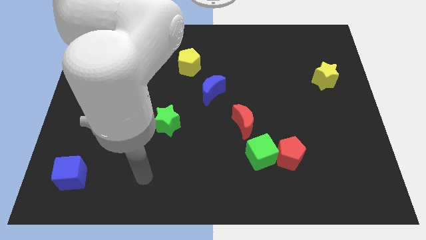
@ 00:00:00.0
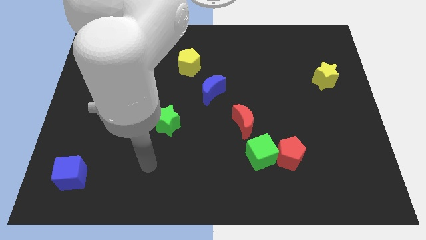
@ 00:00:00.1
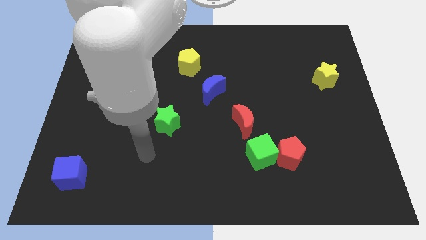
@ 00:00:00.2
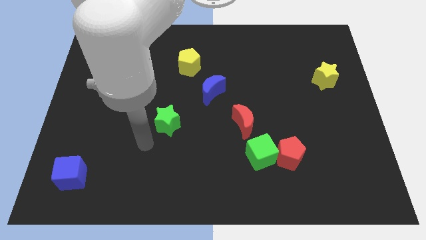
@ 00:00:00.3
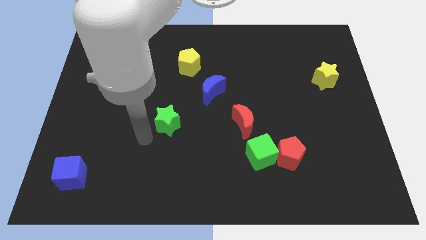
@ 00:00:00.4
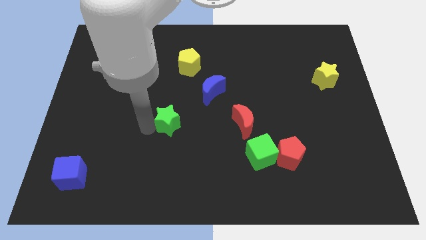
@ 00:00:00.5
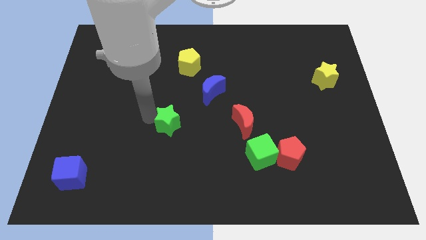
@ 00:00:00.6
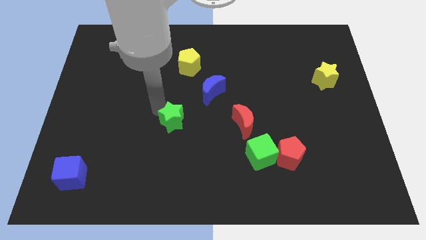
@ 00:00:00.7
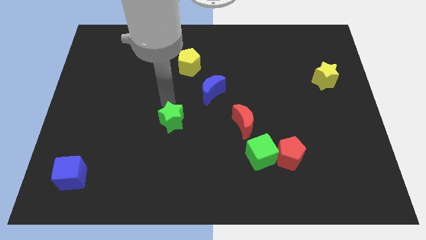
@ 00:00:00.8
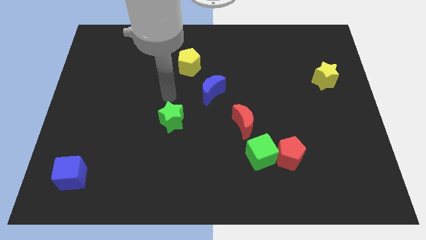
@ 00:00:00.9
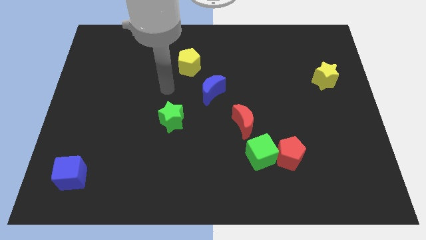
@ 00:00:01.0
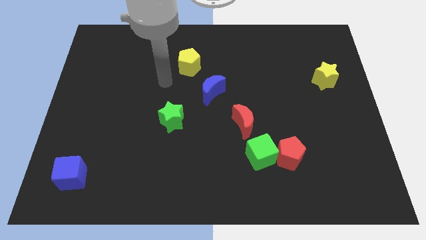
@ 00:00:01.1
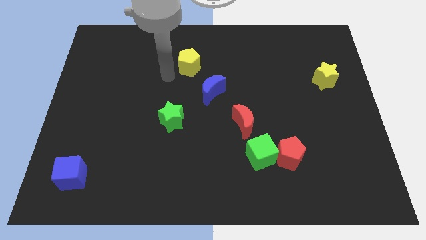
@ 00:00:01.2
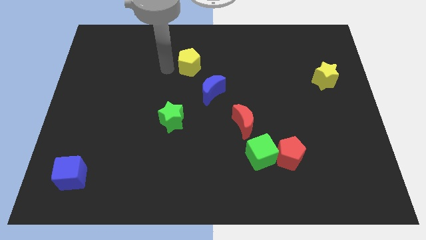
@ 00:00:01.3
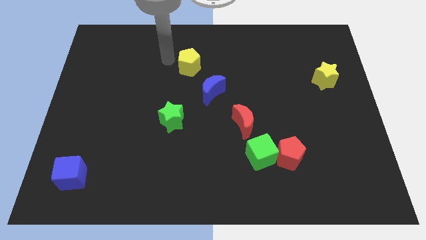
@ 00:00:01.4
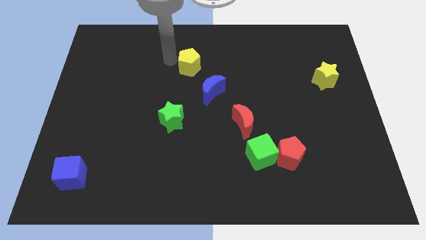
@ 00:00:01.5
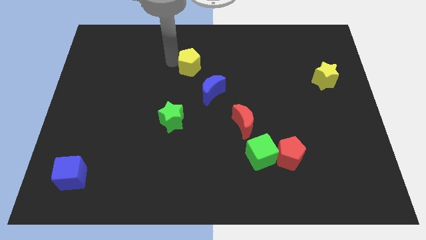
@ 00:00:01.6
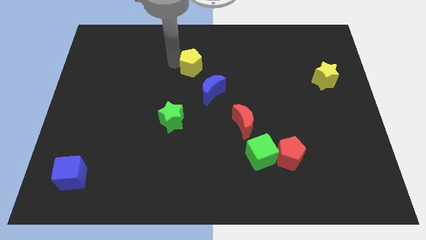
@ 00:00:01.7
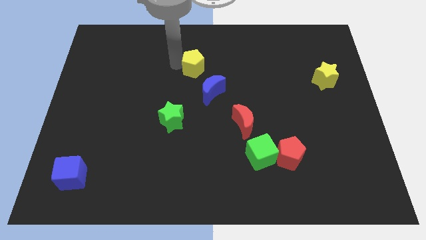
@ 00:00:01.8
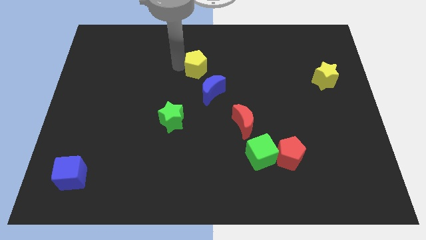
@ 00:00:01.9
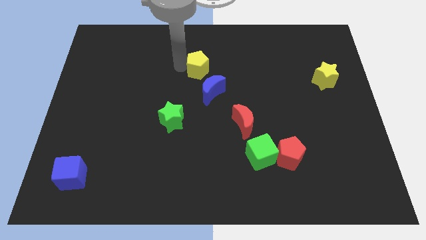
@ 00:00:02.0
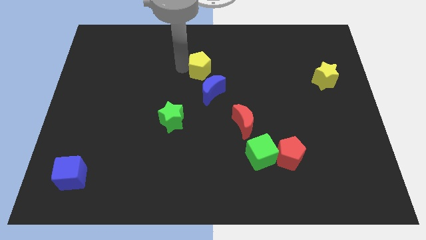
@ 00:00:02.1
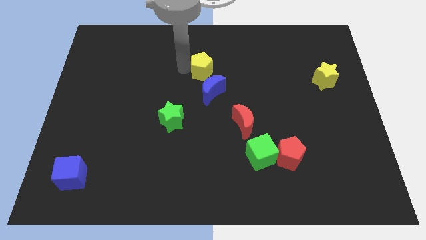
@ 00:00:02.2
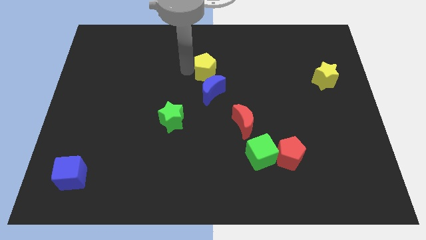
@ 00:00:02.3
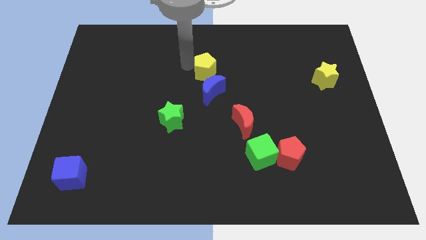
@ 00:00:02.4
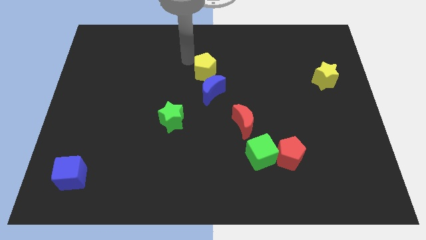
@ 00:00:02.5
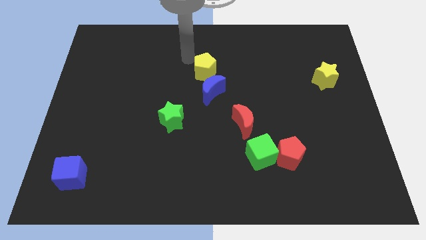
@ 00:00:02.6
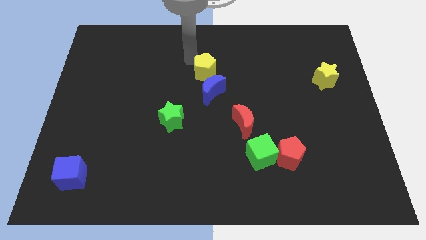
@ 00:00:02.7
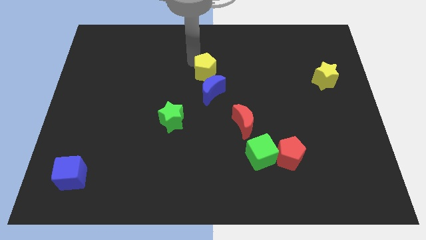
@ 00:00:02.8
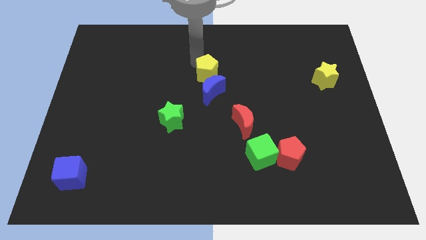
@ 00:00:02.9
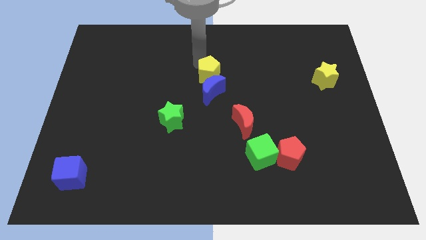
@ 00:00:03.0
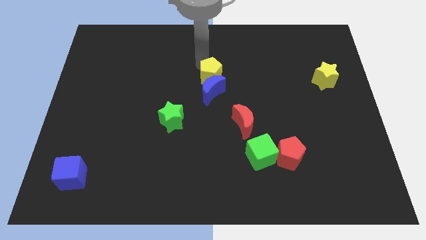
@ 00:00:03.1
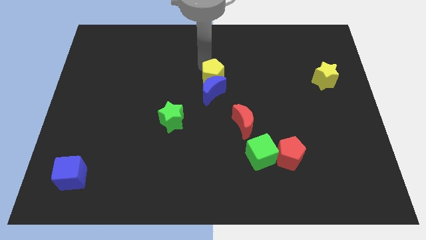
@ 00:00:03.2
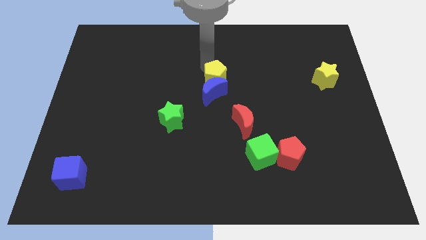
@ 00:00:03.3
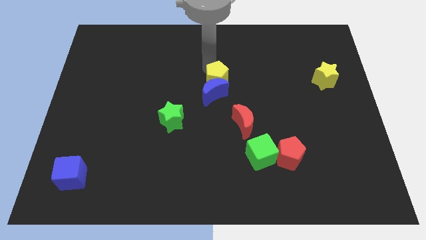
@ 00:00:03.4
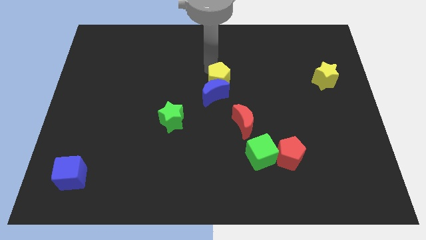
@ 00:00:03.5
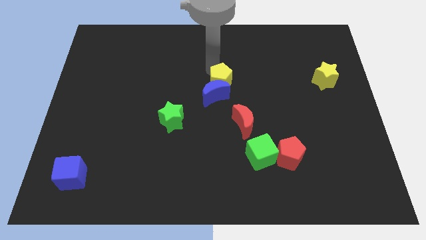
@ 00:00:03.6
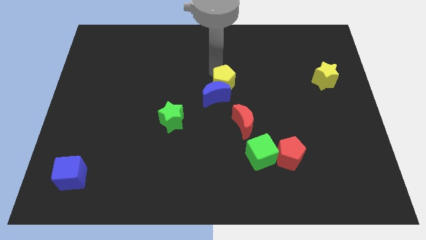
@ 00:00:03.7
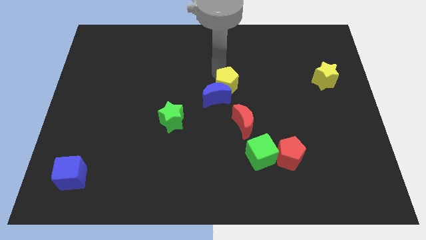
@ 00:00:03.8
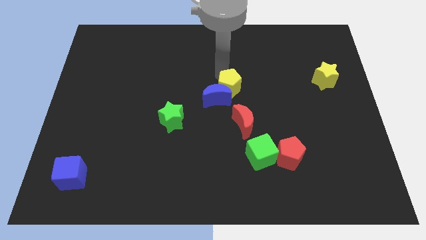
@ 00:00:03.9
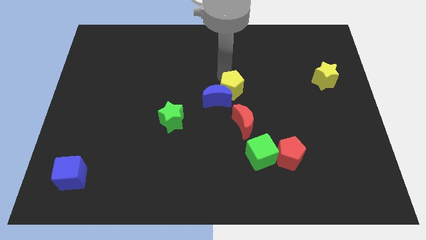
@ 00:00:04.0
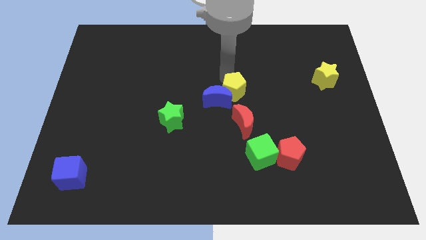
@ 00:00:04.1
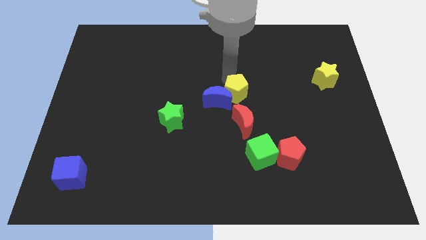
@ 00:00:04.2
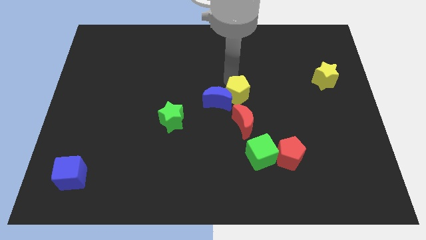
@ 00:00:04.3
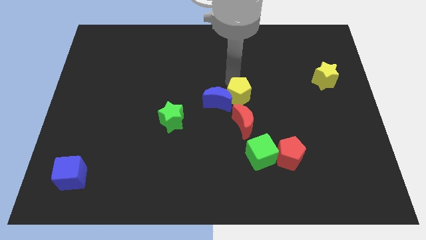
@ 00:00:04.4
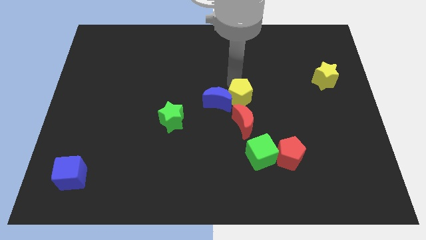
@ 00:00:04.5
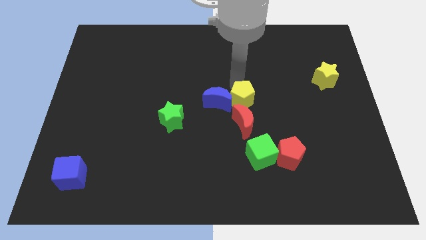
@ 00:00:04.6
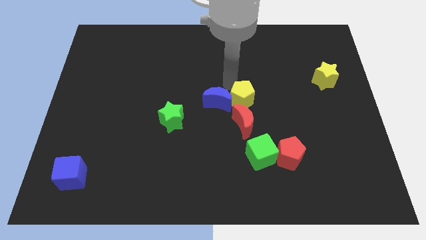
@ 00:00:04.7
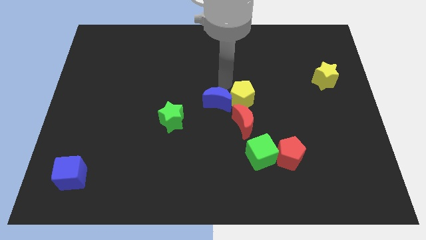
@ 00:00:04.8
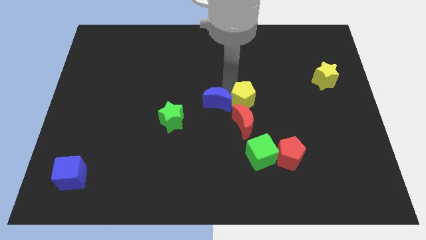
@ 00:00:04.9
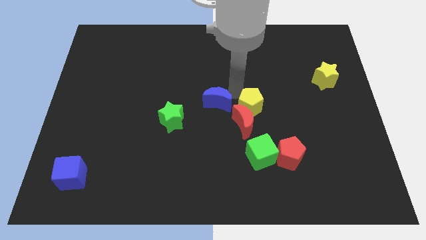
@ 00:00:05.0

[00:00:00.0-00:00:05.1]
move the yellow pentagon downwards and right diagonally

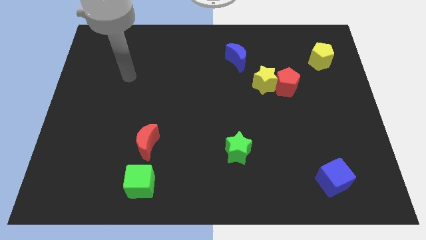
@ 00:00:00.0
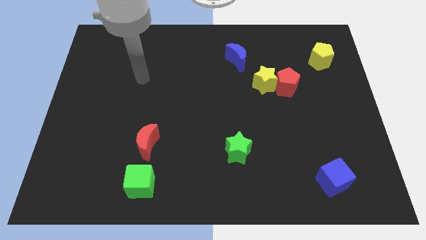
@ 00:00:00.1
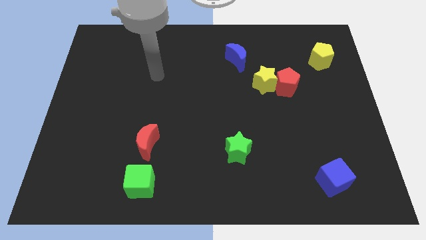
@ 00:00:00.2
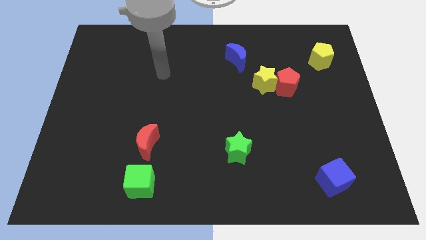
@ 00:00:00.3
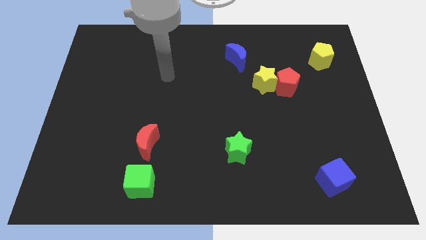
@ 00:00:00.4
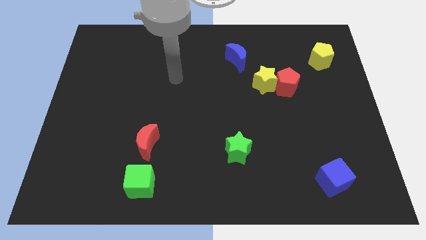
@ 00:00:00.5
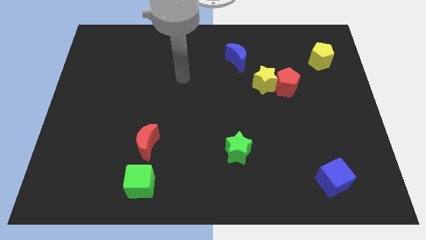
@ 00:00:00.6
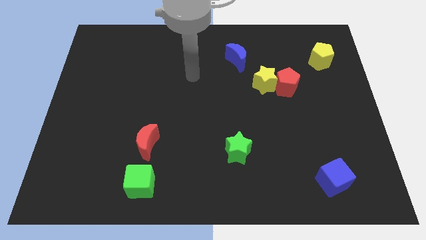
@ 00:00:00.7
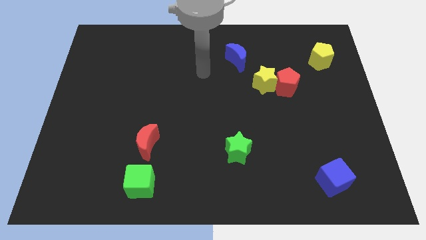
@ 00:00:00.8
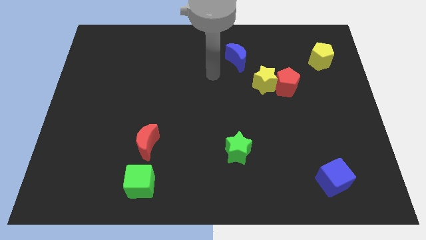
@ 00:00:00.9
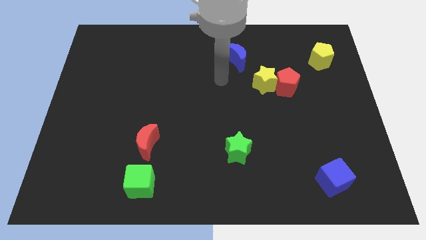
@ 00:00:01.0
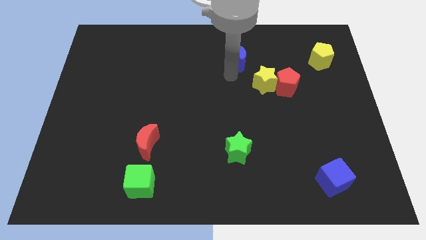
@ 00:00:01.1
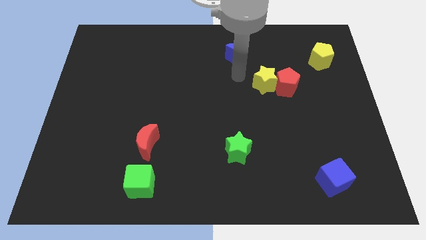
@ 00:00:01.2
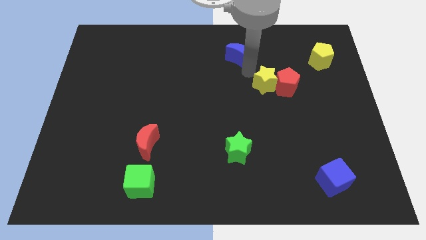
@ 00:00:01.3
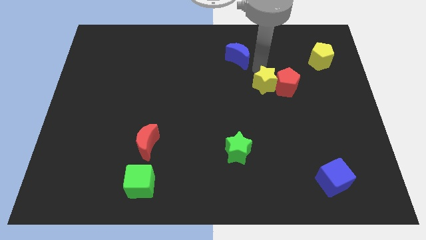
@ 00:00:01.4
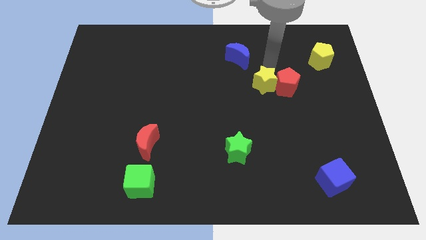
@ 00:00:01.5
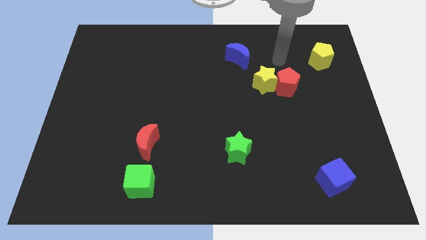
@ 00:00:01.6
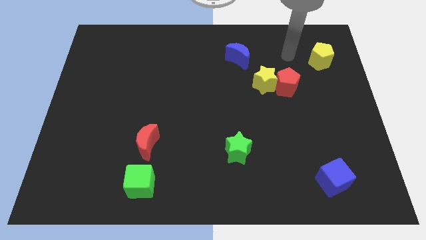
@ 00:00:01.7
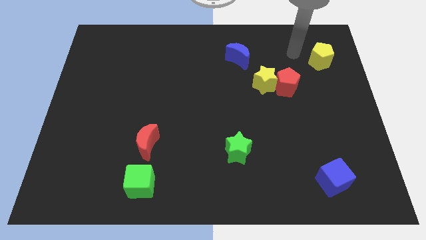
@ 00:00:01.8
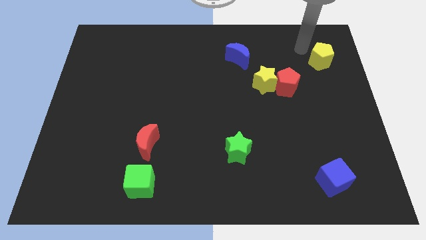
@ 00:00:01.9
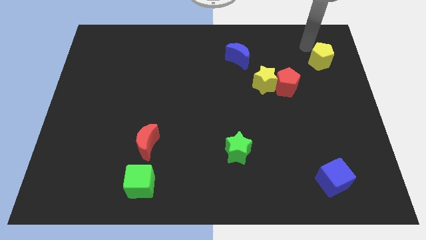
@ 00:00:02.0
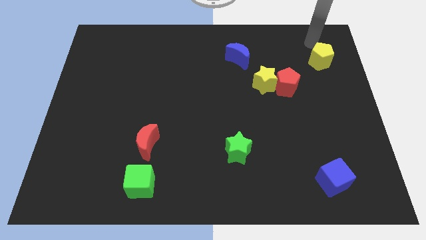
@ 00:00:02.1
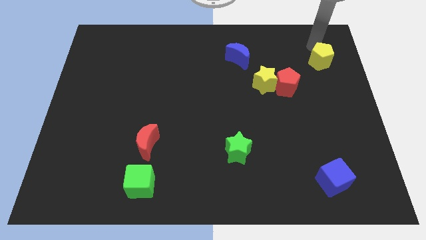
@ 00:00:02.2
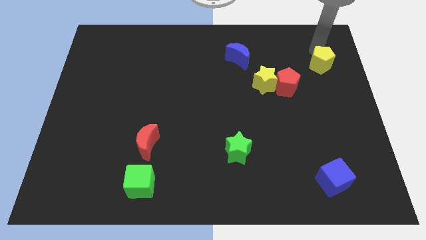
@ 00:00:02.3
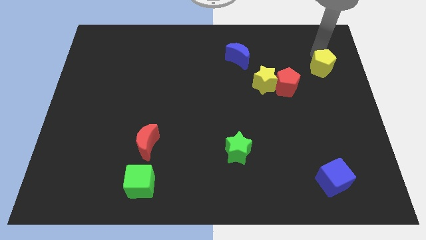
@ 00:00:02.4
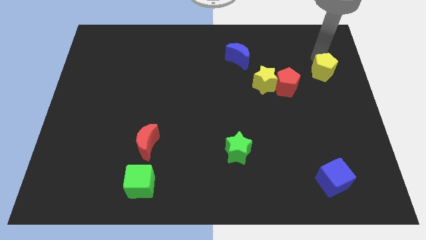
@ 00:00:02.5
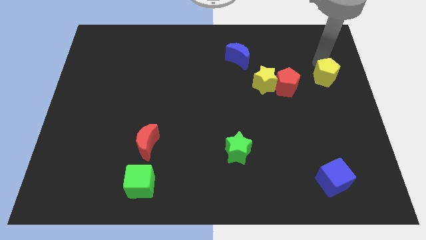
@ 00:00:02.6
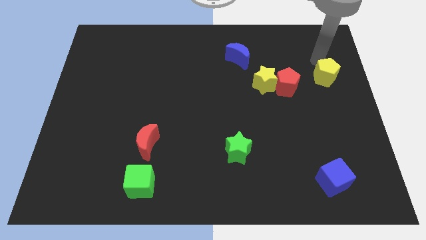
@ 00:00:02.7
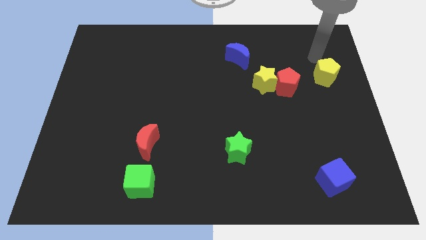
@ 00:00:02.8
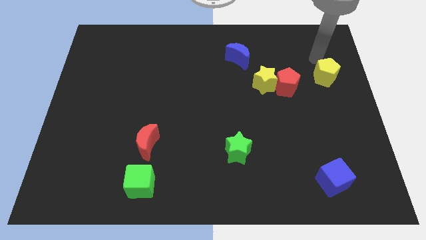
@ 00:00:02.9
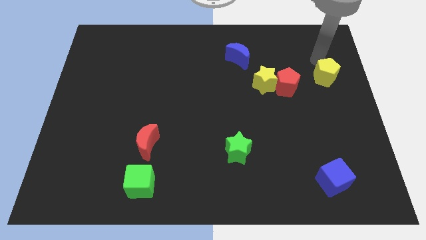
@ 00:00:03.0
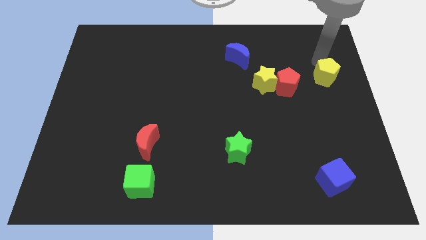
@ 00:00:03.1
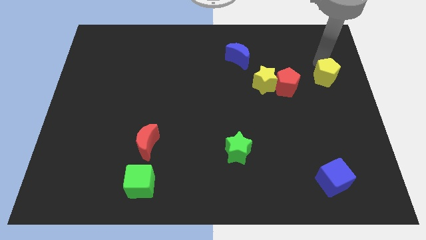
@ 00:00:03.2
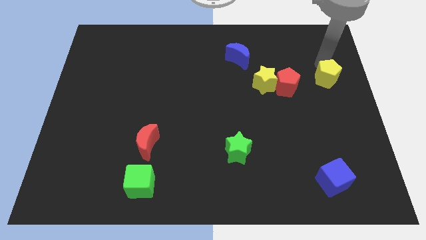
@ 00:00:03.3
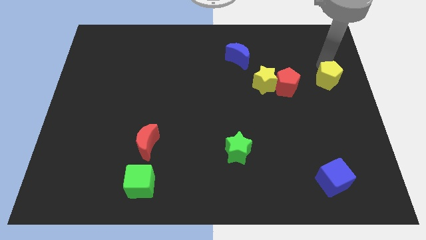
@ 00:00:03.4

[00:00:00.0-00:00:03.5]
slide the yellow pentagon a bit downwards
